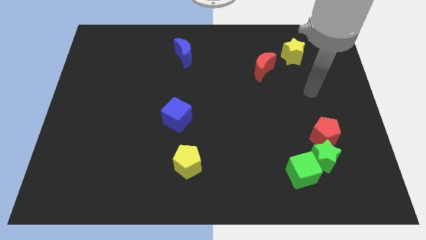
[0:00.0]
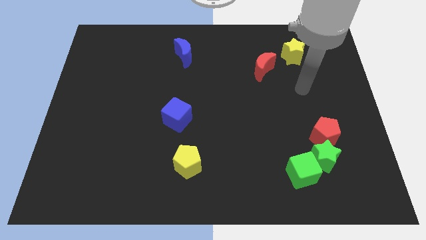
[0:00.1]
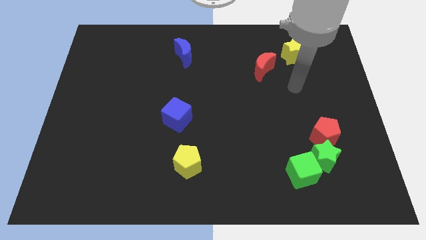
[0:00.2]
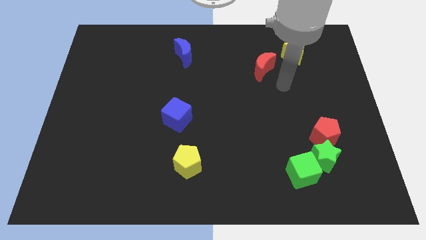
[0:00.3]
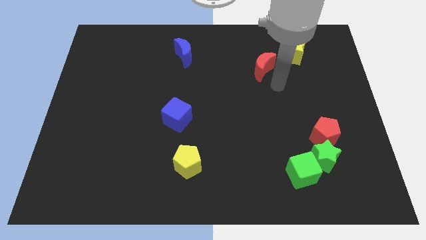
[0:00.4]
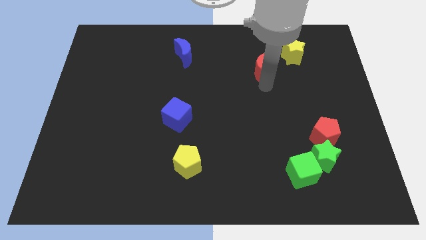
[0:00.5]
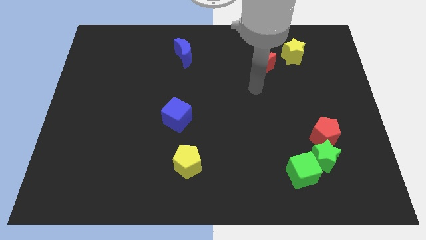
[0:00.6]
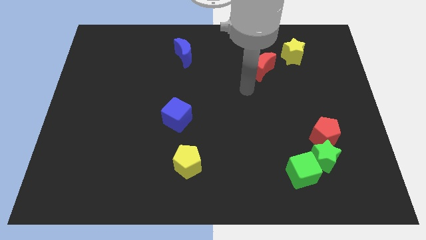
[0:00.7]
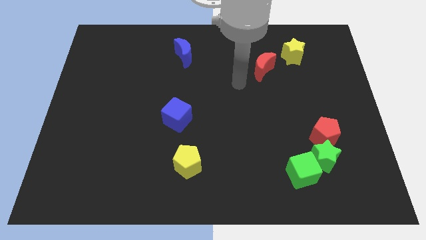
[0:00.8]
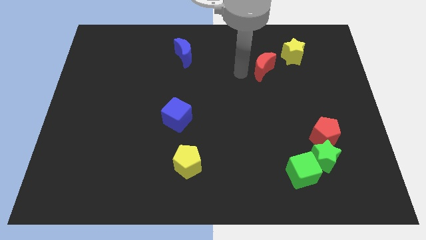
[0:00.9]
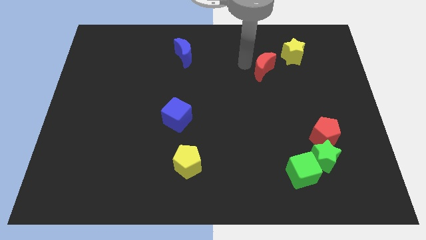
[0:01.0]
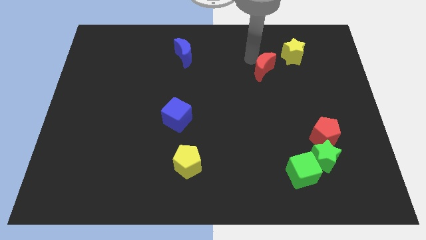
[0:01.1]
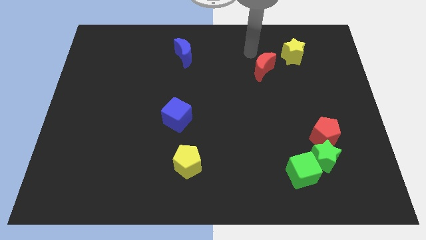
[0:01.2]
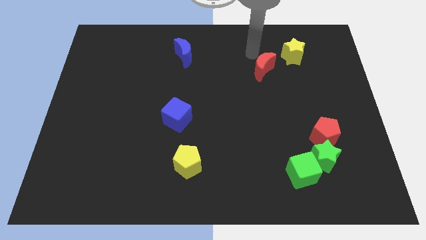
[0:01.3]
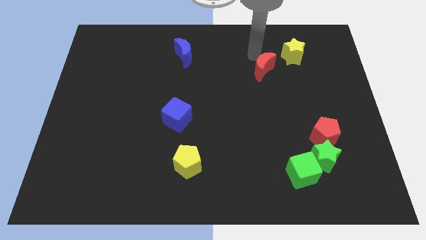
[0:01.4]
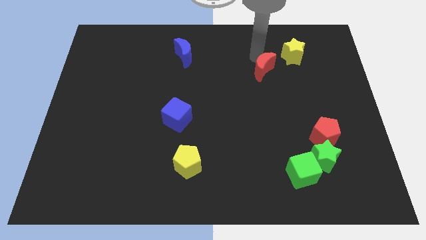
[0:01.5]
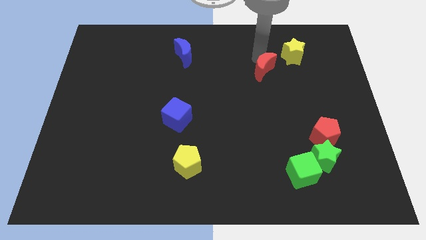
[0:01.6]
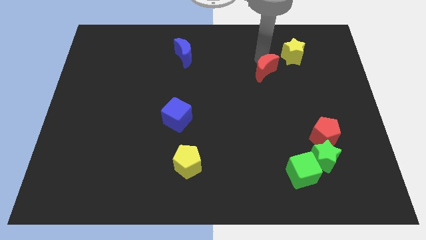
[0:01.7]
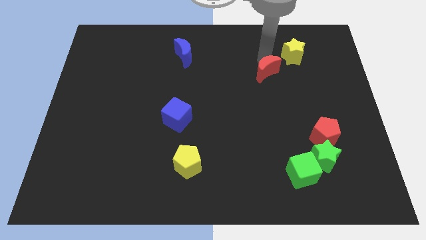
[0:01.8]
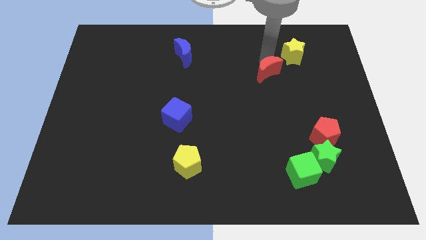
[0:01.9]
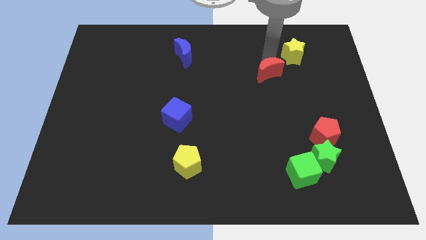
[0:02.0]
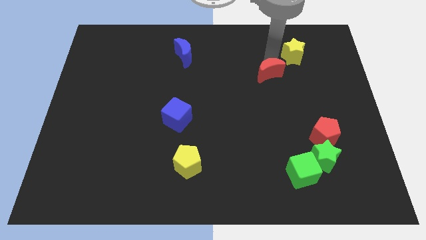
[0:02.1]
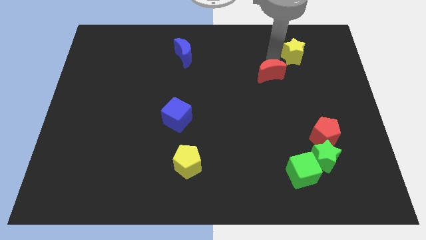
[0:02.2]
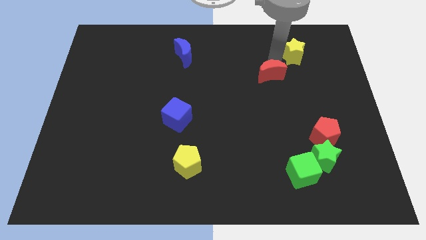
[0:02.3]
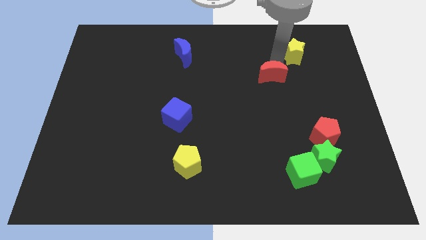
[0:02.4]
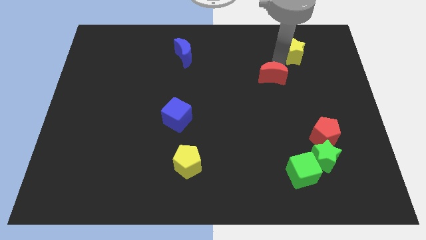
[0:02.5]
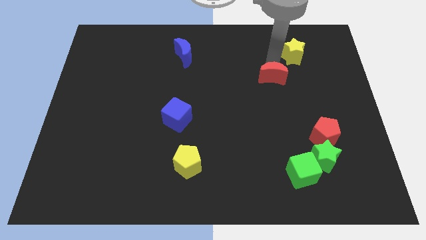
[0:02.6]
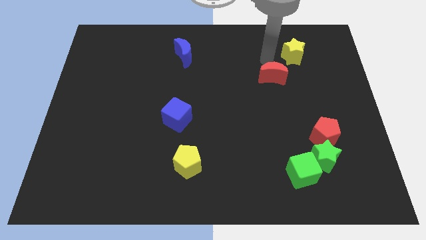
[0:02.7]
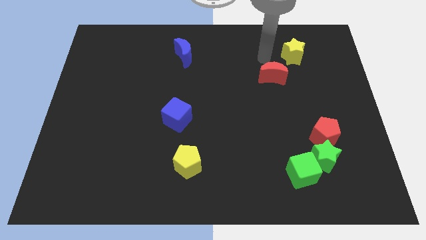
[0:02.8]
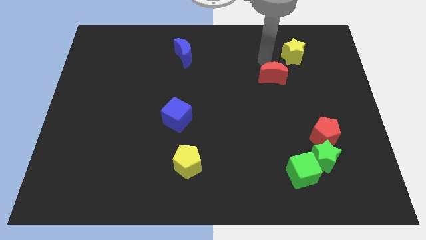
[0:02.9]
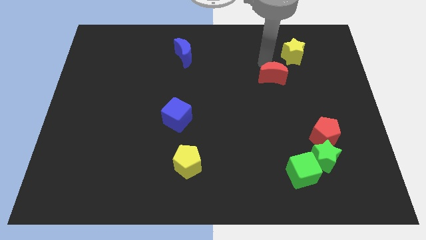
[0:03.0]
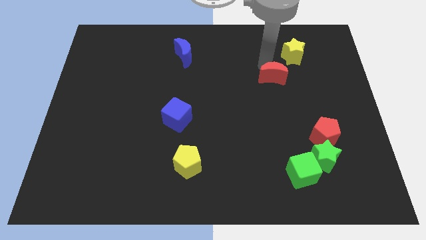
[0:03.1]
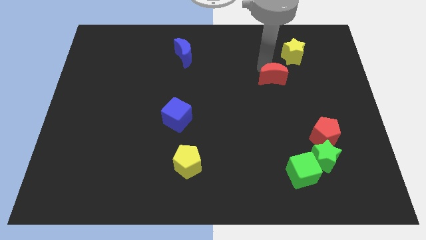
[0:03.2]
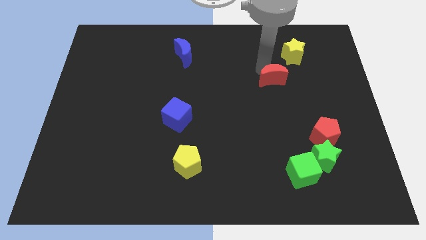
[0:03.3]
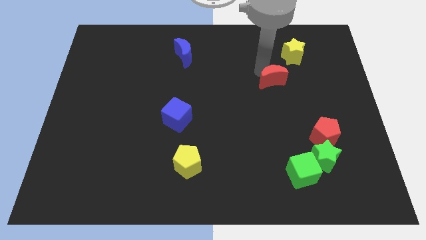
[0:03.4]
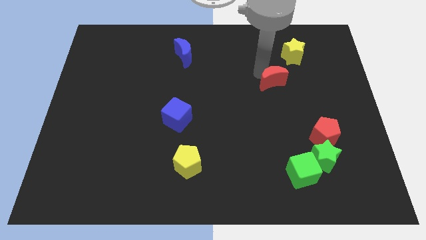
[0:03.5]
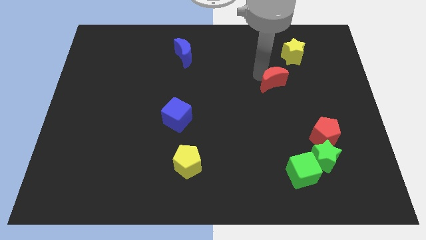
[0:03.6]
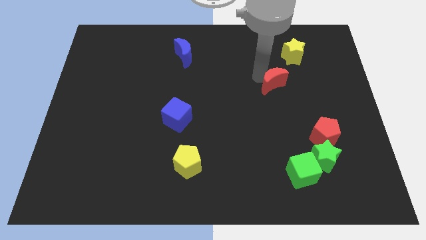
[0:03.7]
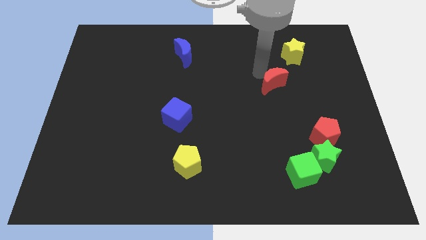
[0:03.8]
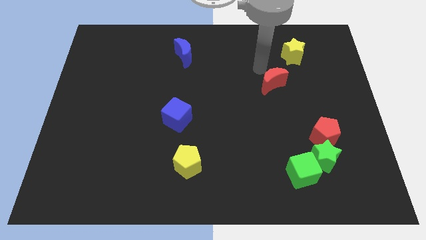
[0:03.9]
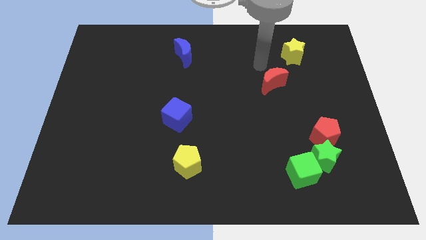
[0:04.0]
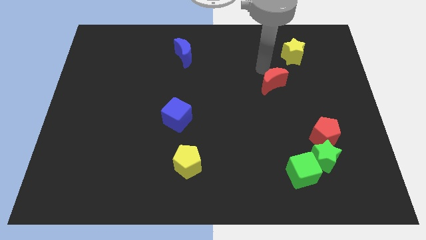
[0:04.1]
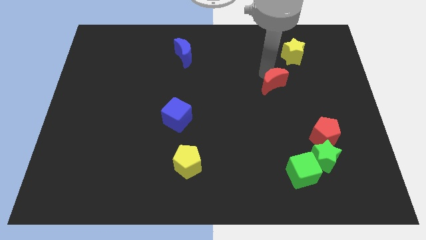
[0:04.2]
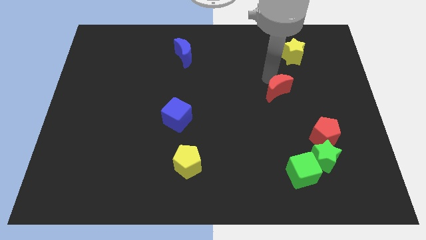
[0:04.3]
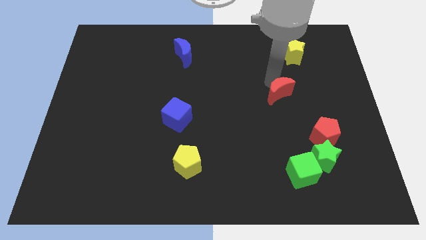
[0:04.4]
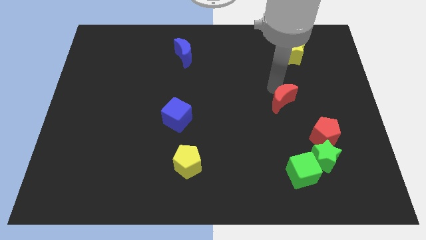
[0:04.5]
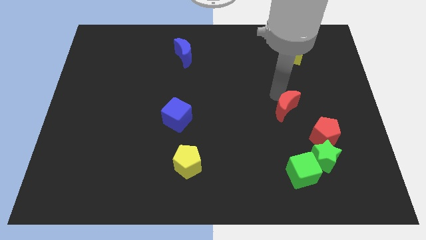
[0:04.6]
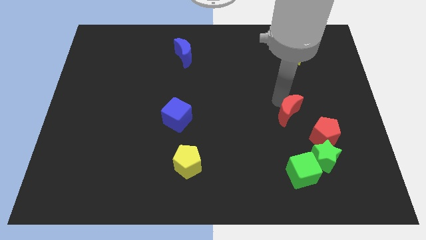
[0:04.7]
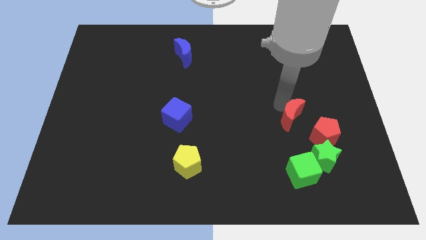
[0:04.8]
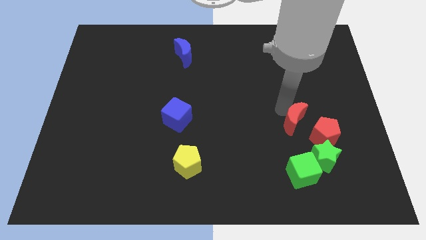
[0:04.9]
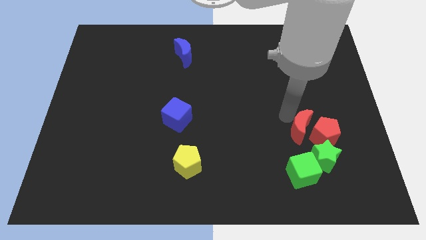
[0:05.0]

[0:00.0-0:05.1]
put the red moon close to the red pentagon

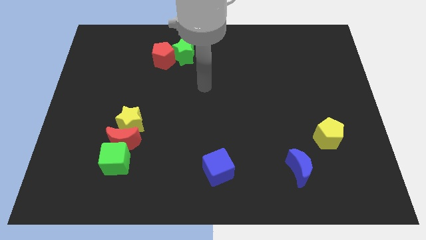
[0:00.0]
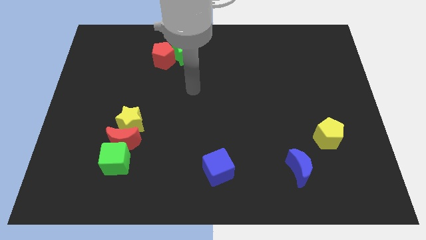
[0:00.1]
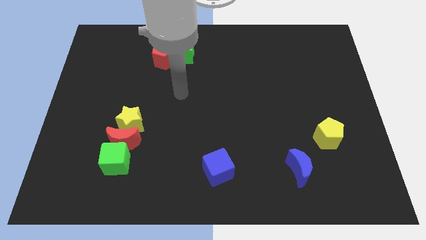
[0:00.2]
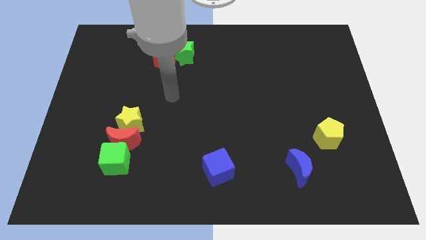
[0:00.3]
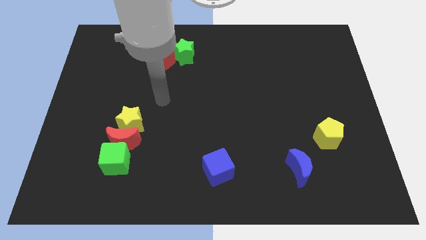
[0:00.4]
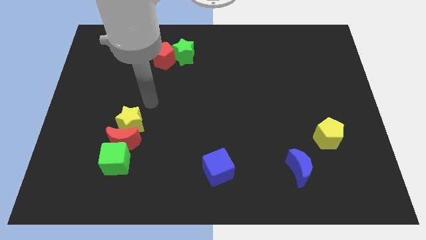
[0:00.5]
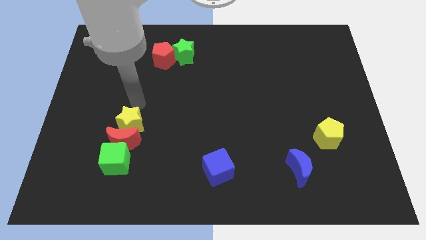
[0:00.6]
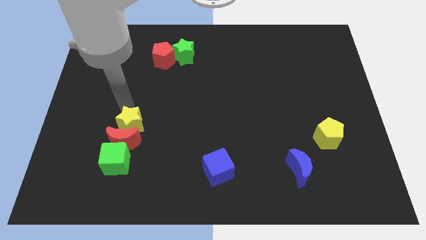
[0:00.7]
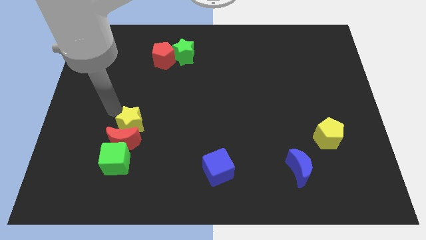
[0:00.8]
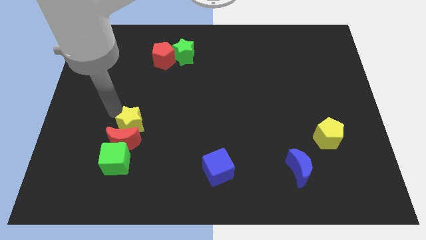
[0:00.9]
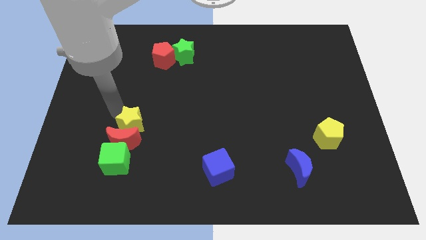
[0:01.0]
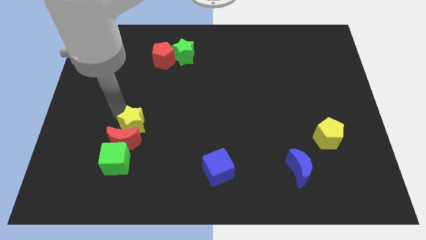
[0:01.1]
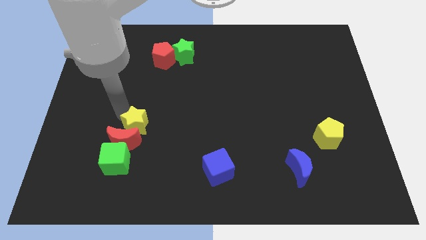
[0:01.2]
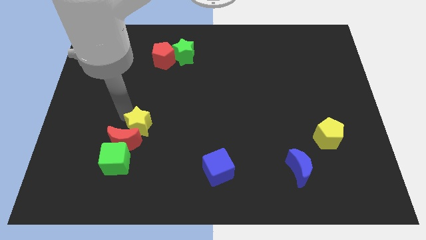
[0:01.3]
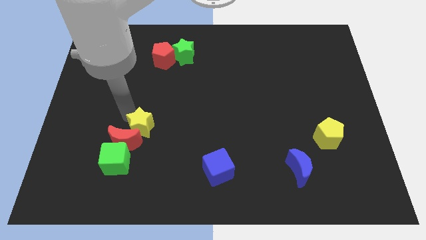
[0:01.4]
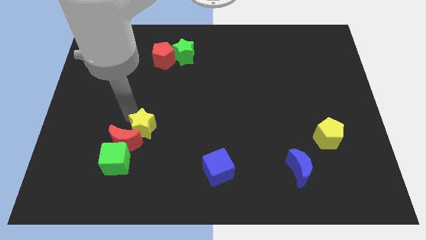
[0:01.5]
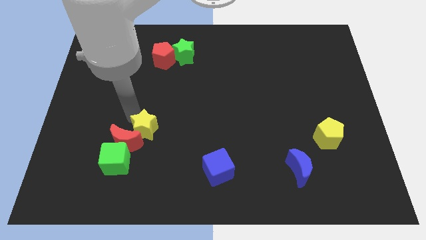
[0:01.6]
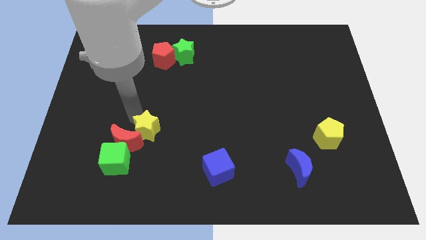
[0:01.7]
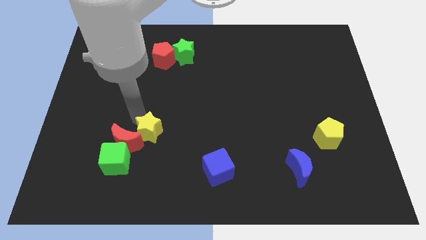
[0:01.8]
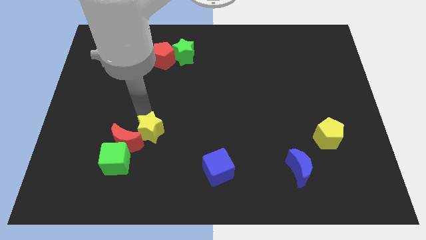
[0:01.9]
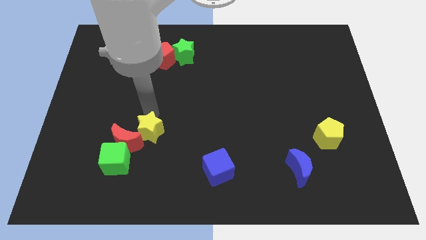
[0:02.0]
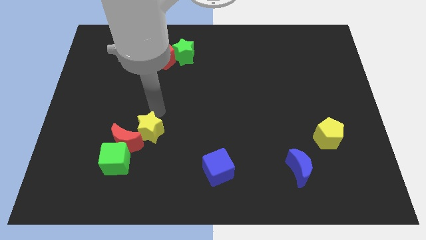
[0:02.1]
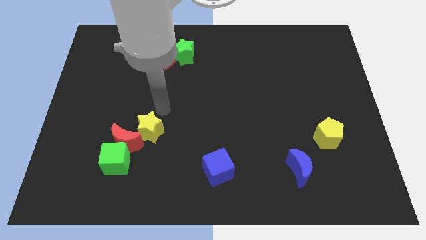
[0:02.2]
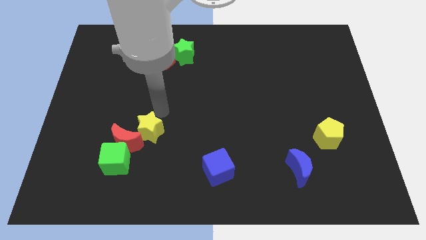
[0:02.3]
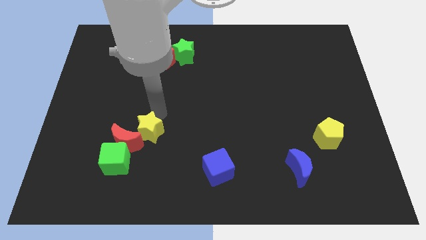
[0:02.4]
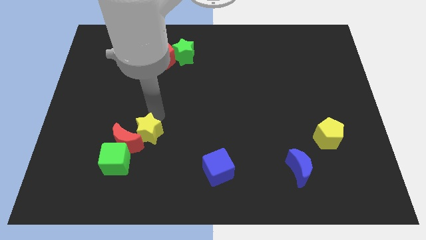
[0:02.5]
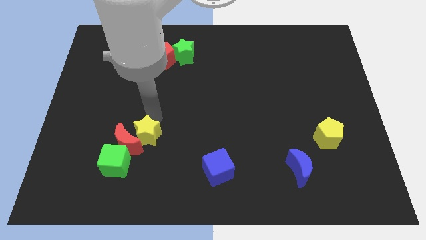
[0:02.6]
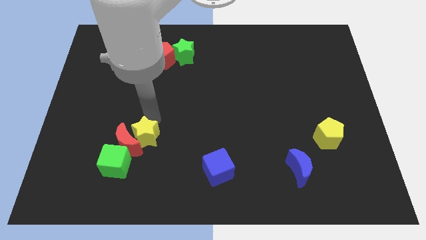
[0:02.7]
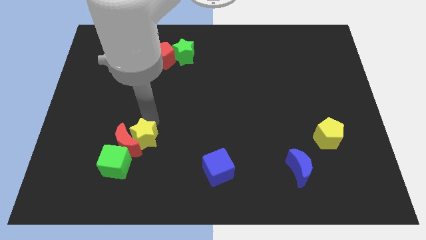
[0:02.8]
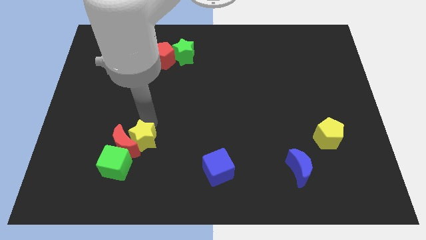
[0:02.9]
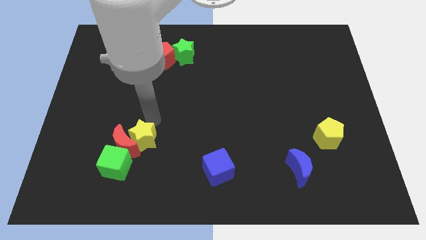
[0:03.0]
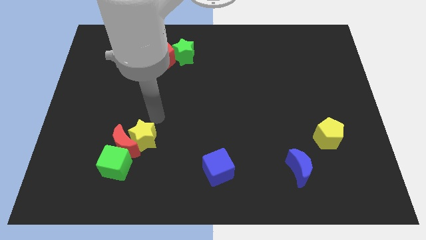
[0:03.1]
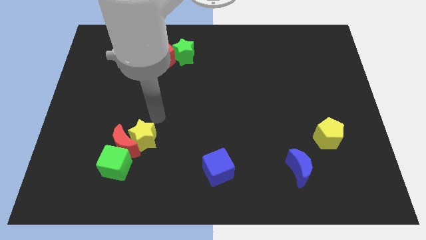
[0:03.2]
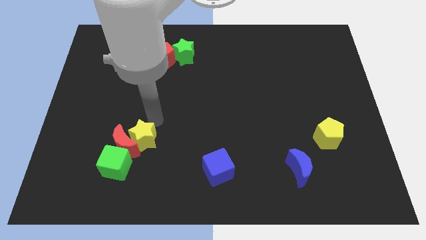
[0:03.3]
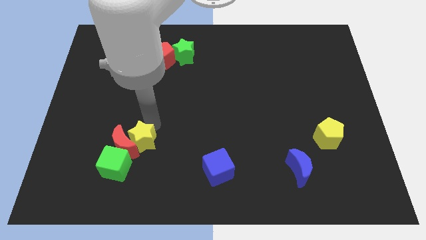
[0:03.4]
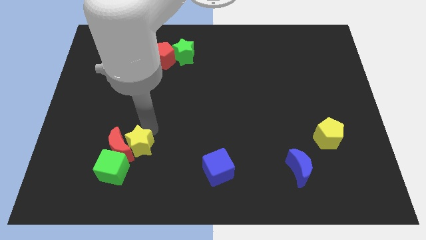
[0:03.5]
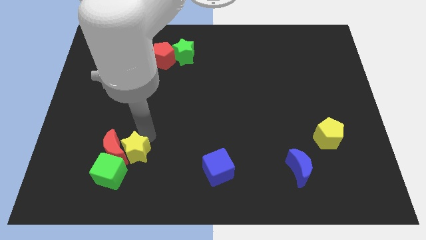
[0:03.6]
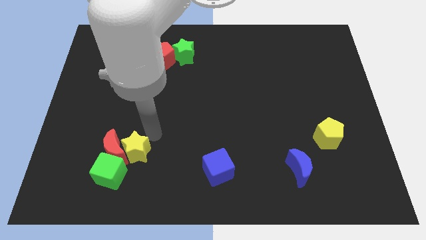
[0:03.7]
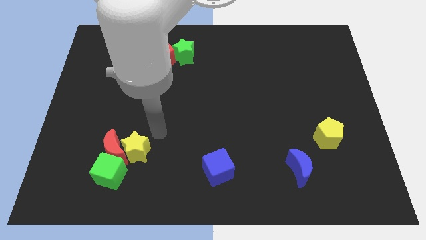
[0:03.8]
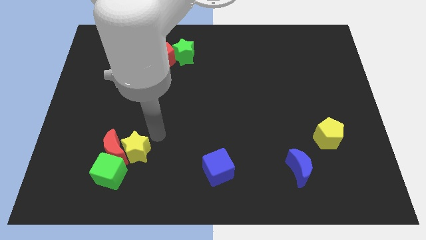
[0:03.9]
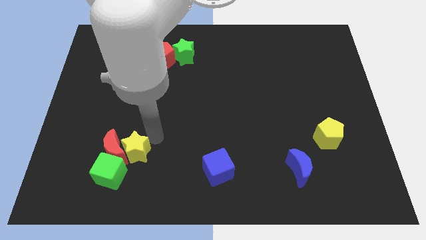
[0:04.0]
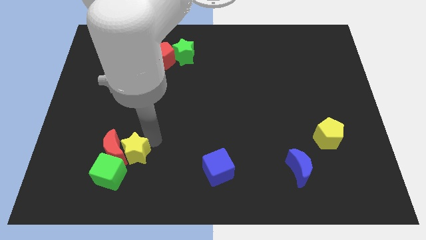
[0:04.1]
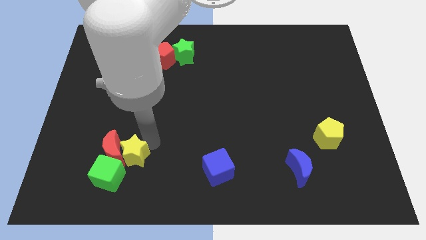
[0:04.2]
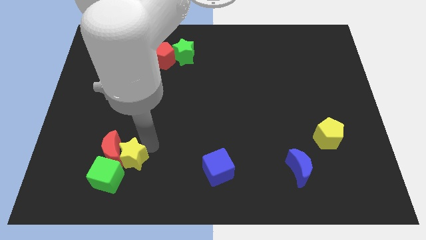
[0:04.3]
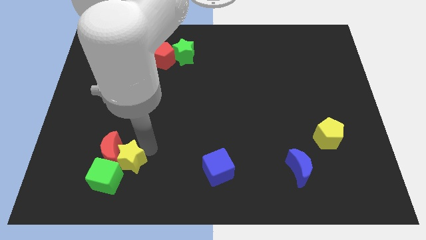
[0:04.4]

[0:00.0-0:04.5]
slide the yellow star to the green cube
